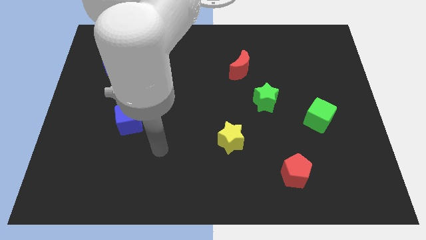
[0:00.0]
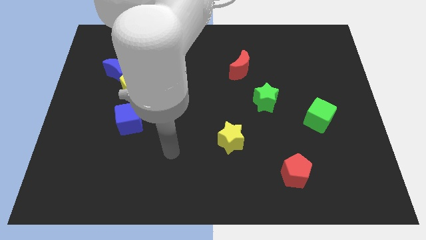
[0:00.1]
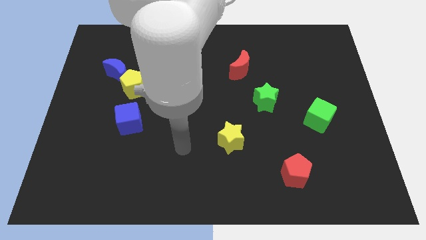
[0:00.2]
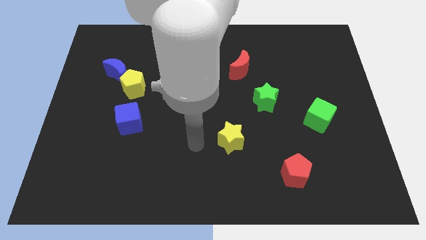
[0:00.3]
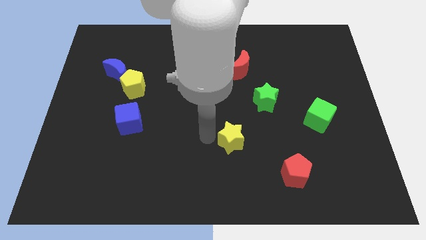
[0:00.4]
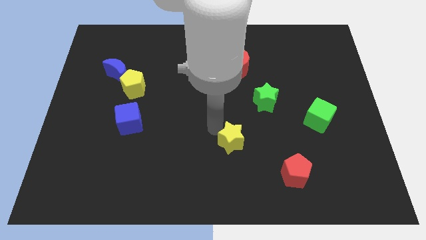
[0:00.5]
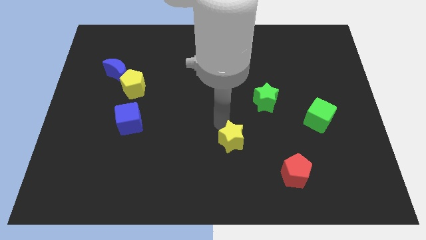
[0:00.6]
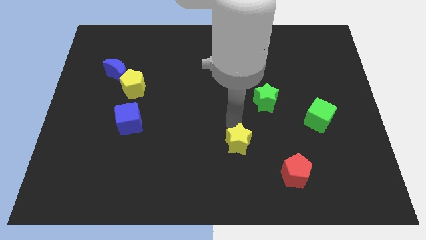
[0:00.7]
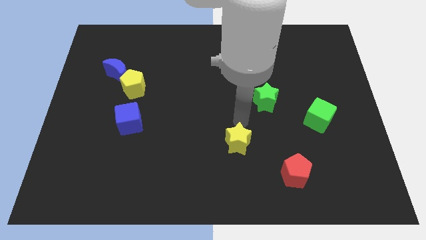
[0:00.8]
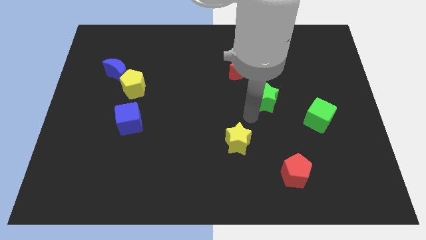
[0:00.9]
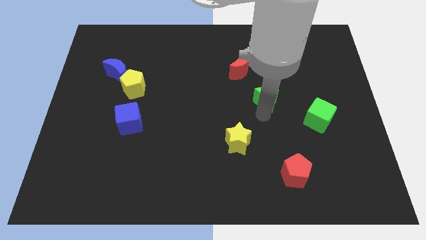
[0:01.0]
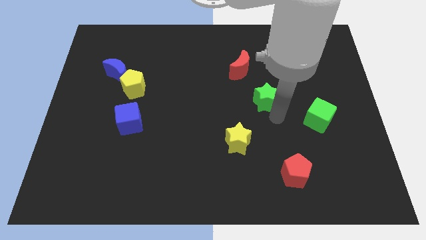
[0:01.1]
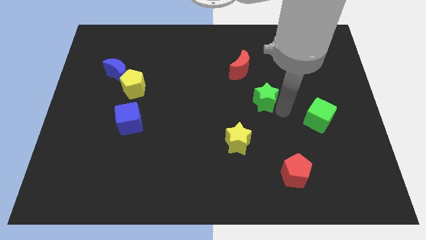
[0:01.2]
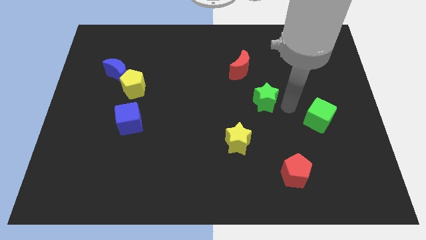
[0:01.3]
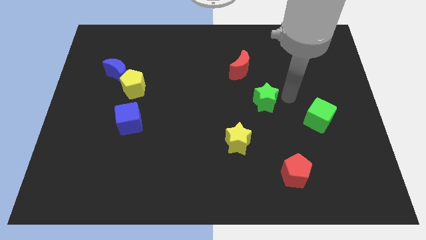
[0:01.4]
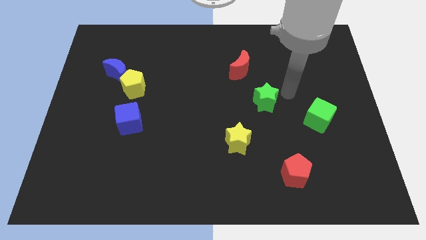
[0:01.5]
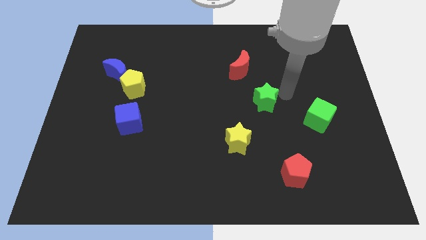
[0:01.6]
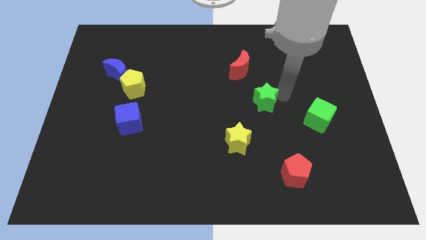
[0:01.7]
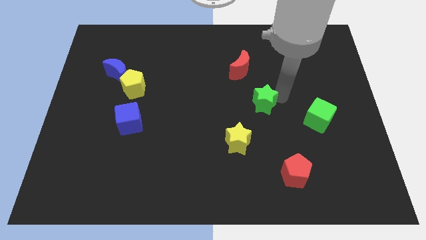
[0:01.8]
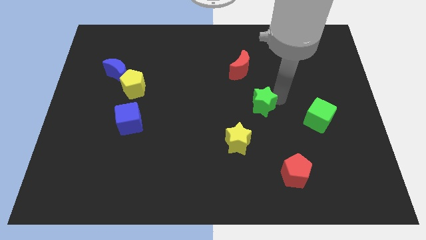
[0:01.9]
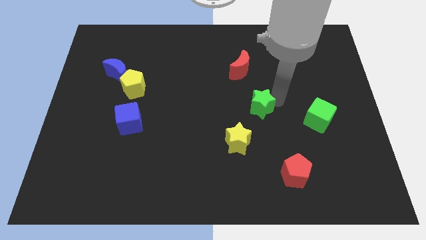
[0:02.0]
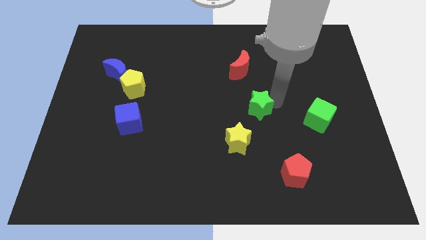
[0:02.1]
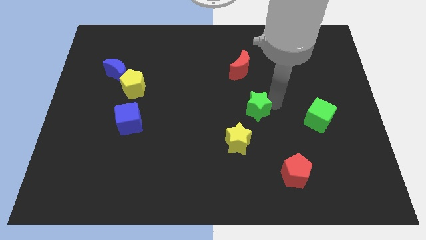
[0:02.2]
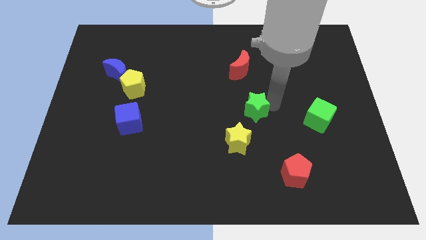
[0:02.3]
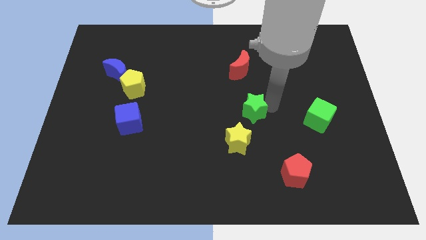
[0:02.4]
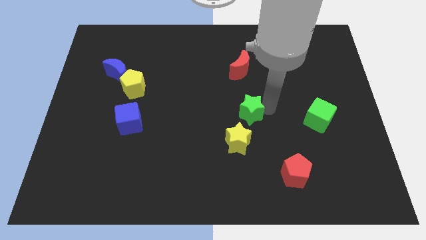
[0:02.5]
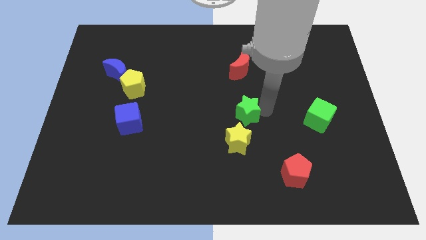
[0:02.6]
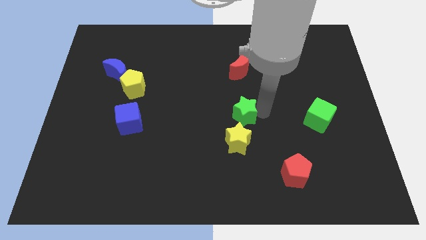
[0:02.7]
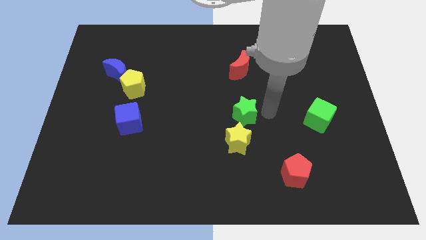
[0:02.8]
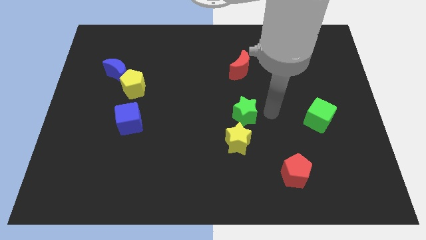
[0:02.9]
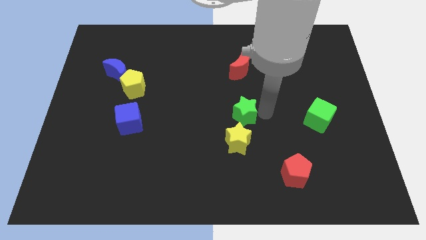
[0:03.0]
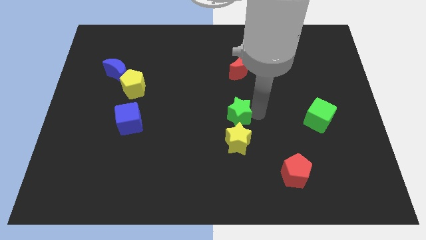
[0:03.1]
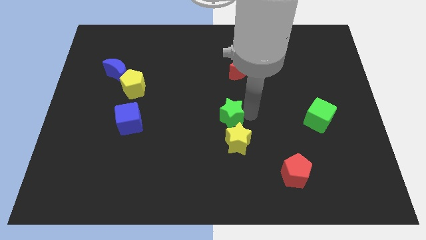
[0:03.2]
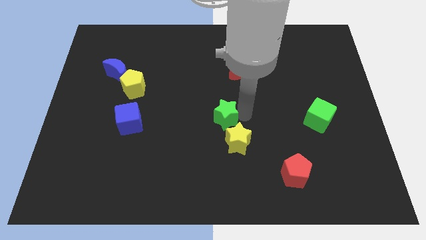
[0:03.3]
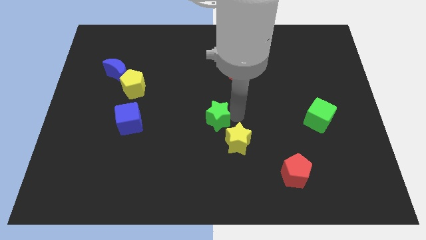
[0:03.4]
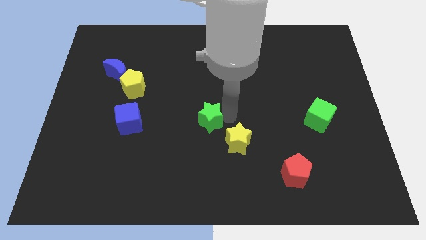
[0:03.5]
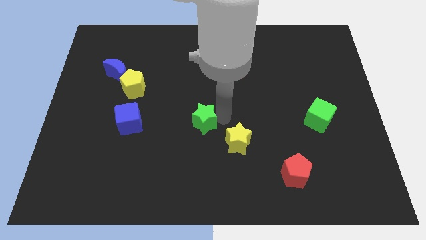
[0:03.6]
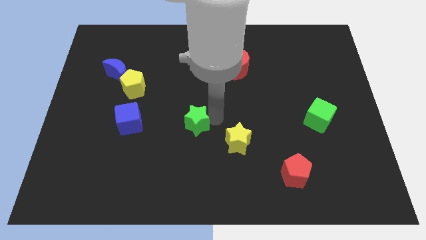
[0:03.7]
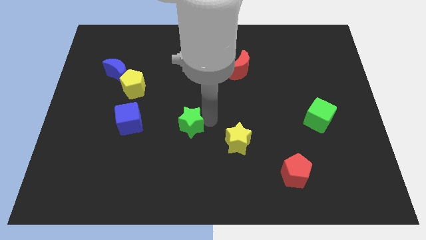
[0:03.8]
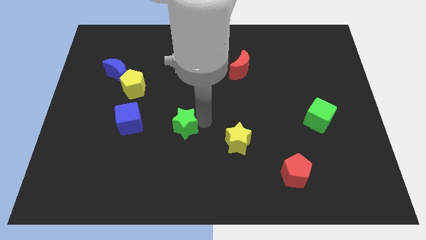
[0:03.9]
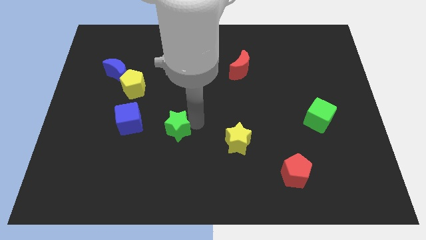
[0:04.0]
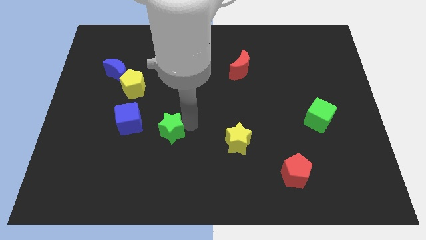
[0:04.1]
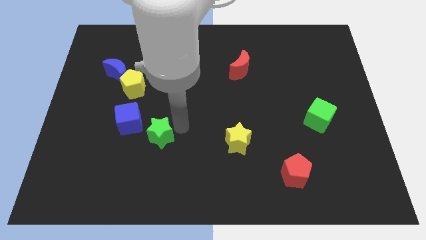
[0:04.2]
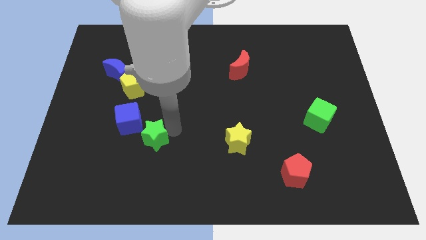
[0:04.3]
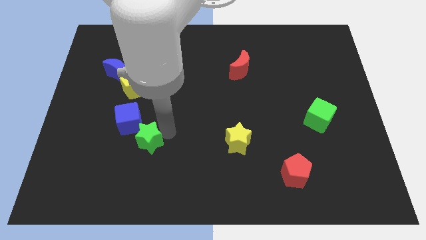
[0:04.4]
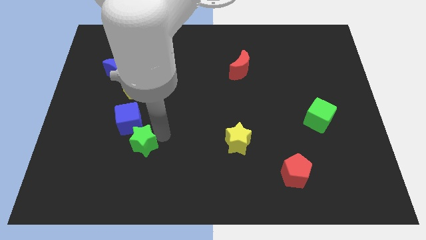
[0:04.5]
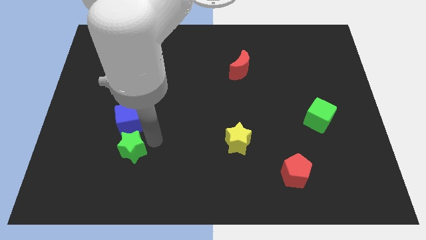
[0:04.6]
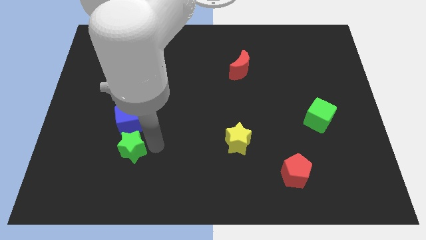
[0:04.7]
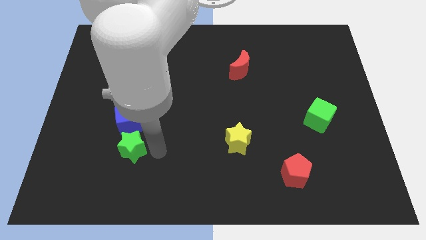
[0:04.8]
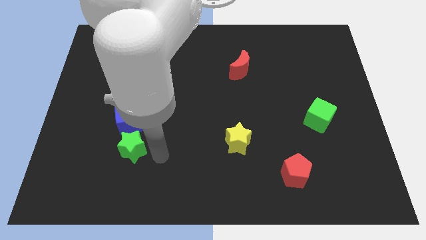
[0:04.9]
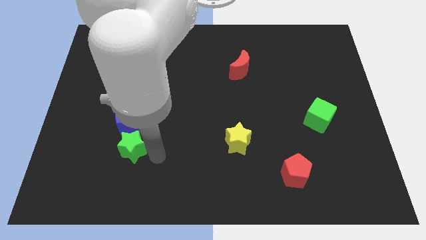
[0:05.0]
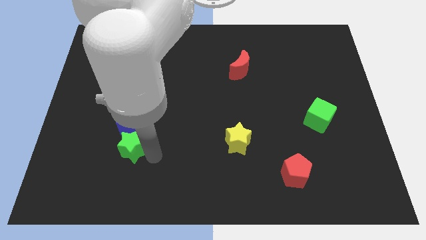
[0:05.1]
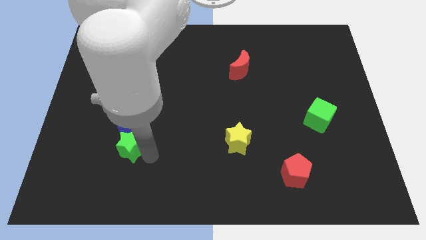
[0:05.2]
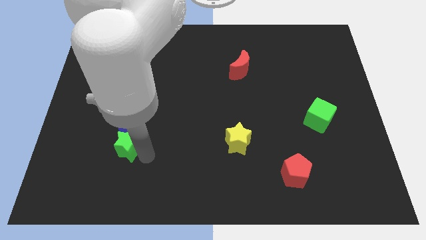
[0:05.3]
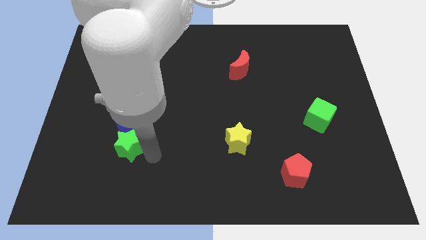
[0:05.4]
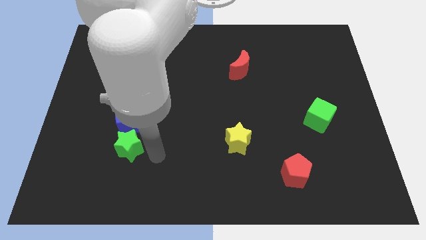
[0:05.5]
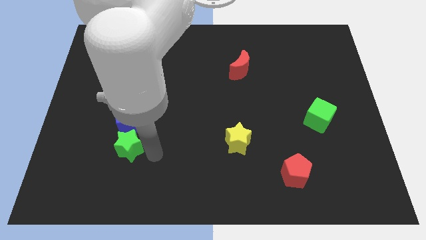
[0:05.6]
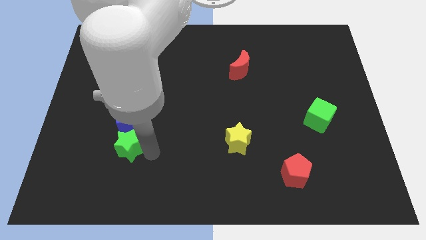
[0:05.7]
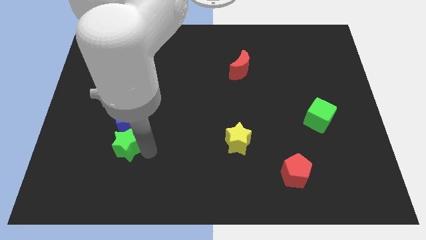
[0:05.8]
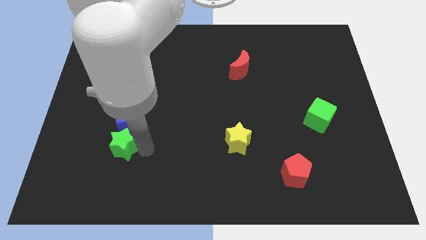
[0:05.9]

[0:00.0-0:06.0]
move the green star diagonally down and to the left of the blue cube

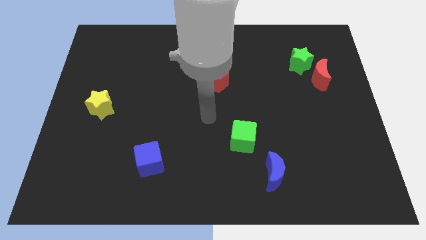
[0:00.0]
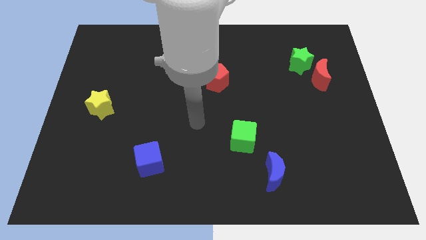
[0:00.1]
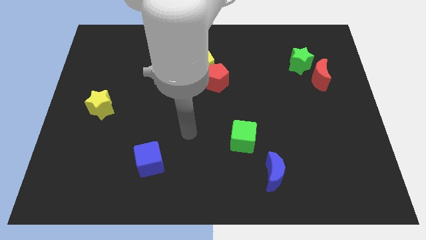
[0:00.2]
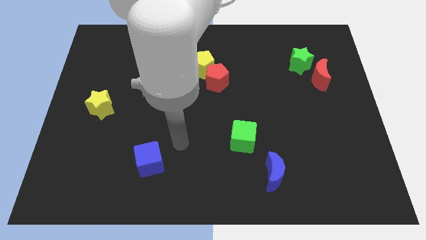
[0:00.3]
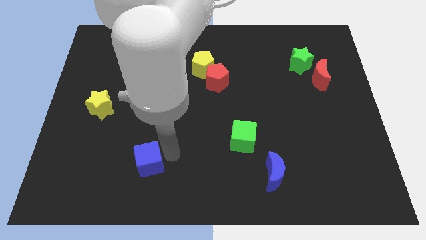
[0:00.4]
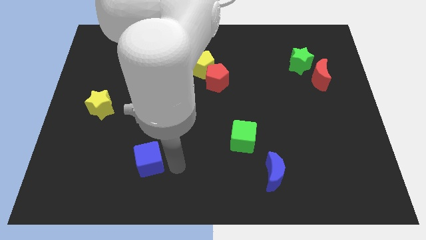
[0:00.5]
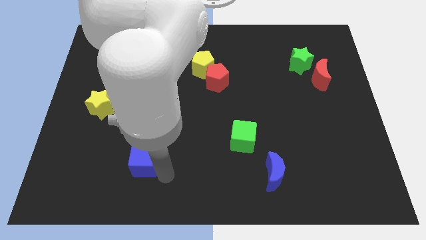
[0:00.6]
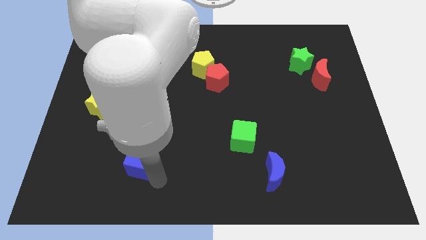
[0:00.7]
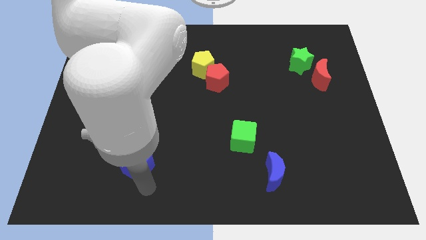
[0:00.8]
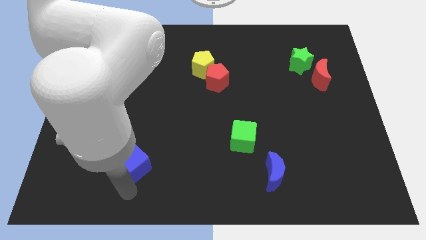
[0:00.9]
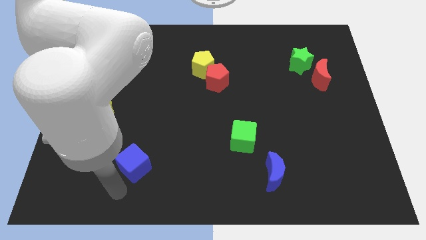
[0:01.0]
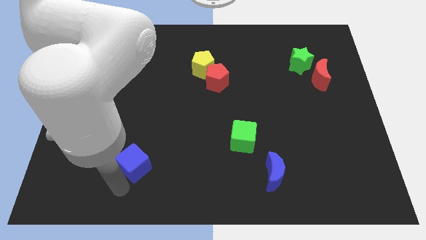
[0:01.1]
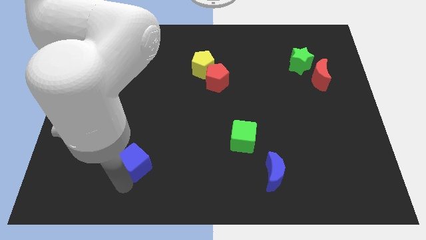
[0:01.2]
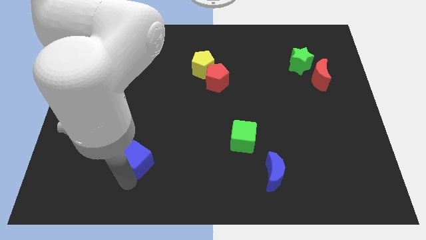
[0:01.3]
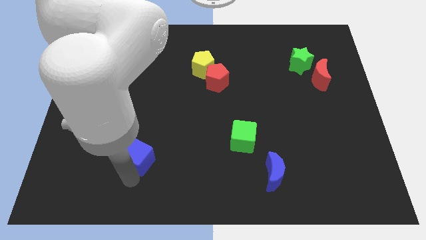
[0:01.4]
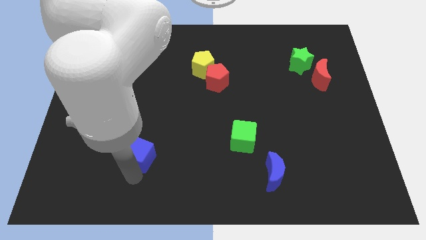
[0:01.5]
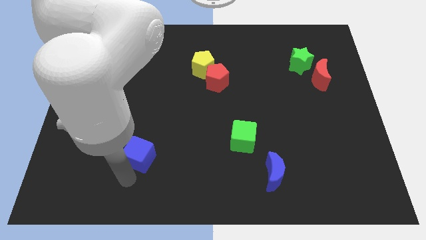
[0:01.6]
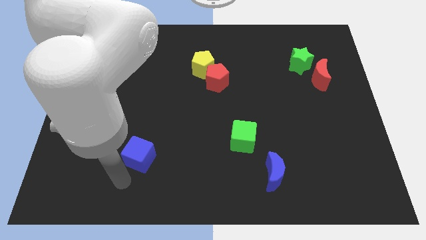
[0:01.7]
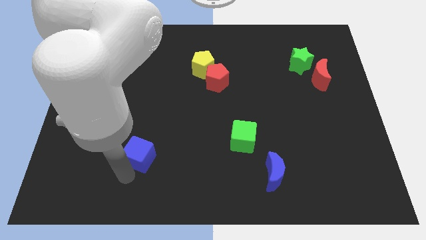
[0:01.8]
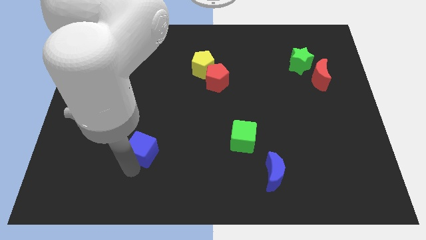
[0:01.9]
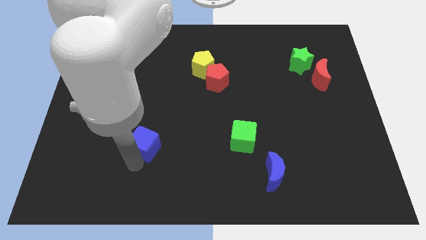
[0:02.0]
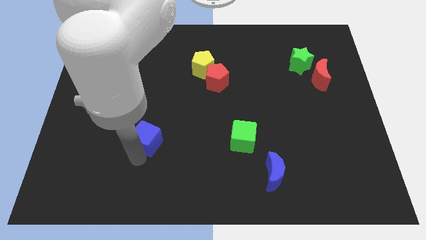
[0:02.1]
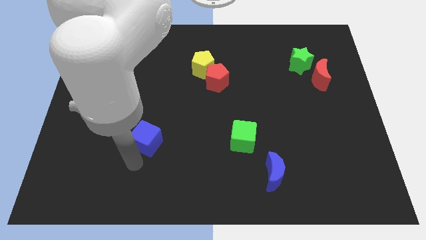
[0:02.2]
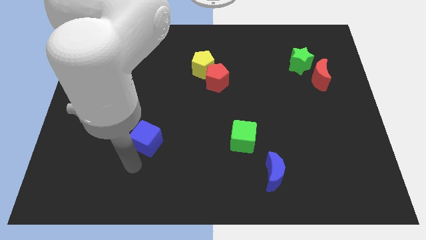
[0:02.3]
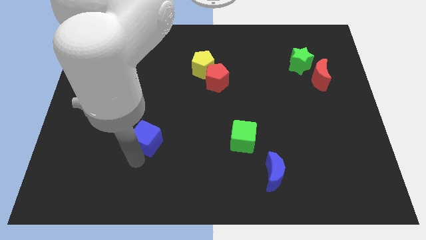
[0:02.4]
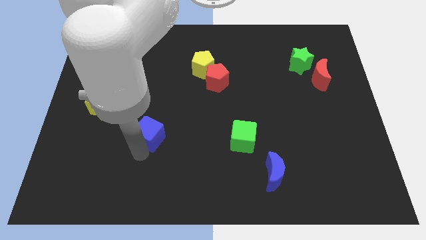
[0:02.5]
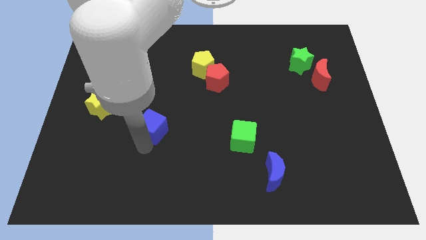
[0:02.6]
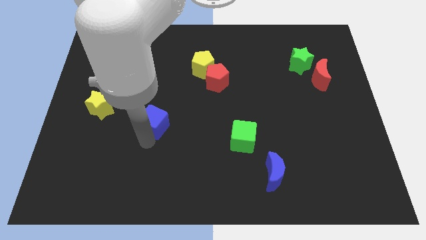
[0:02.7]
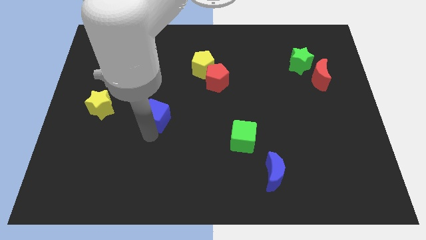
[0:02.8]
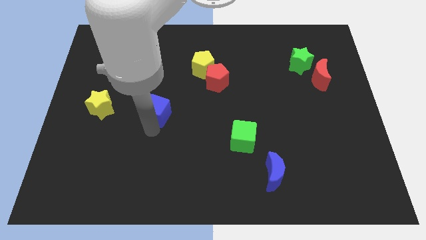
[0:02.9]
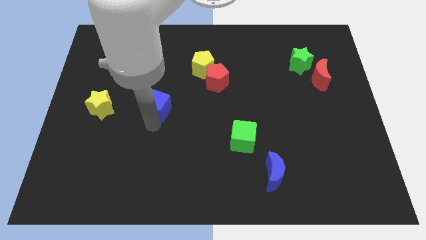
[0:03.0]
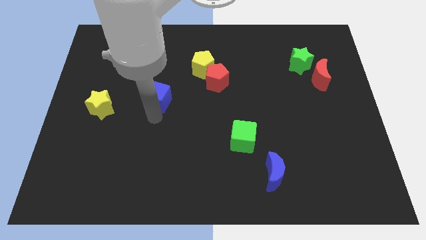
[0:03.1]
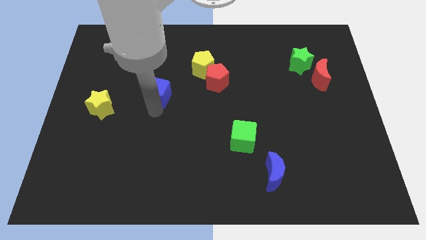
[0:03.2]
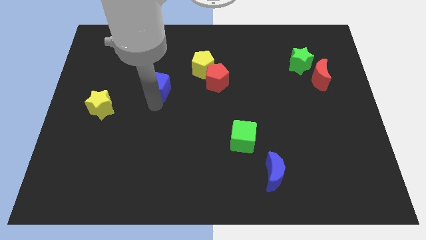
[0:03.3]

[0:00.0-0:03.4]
slide the blue cube to the left of the red pentagon
